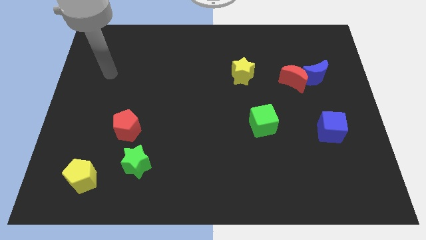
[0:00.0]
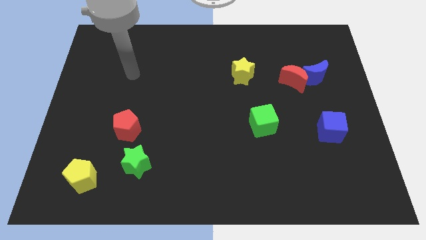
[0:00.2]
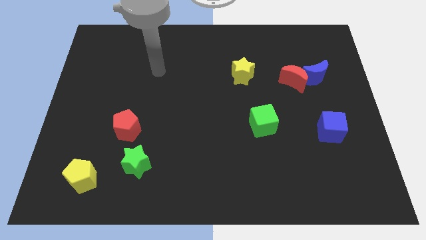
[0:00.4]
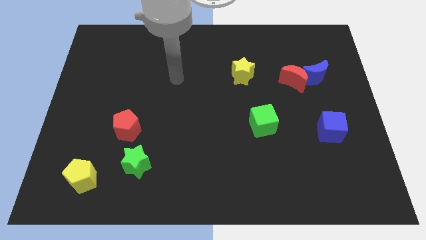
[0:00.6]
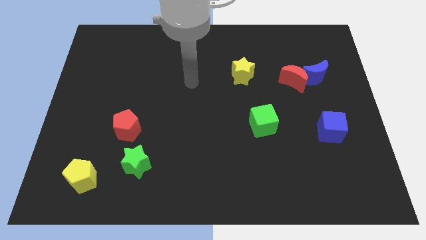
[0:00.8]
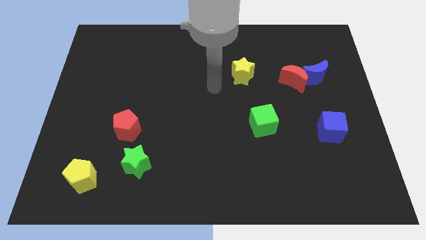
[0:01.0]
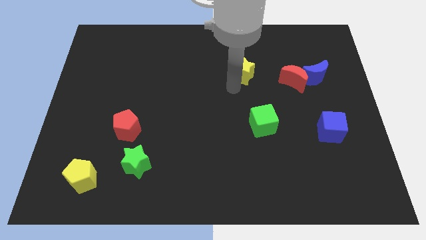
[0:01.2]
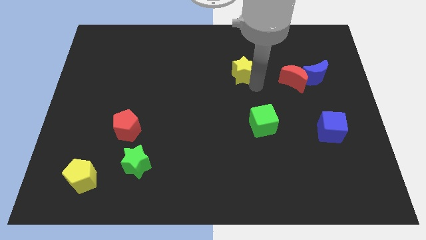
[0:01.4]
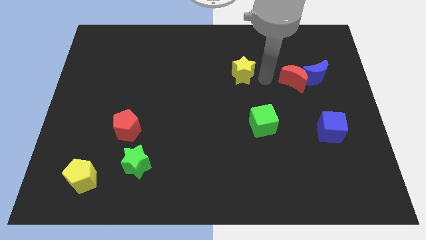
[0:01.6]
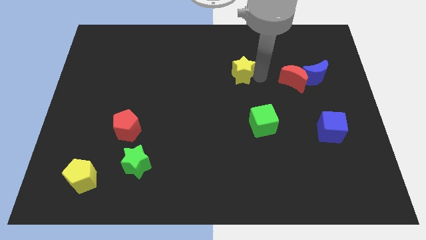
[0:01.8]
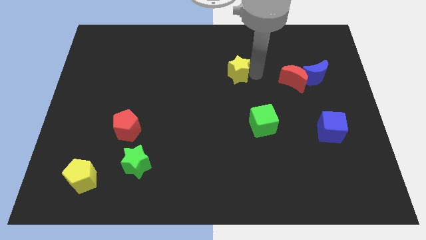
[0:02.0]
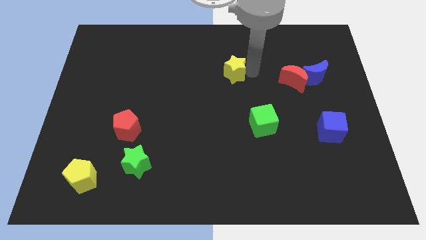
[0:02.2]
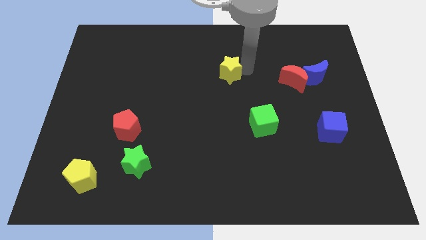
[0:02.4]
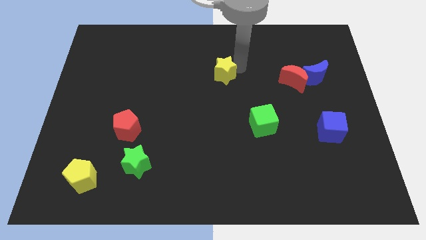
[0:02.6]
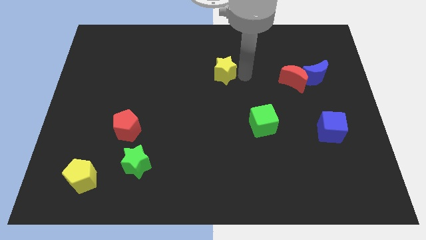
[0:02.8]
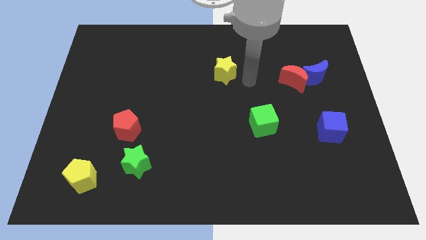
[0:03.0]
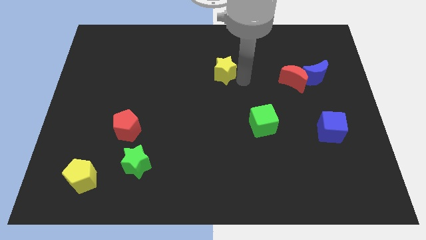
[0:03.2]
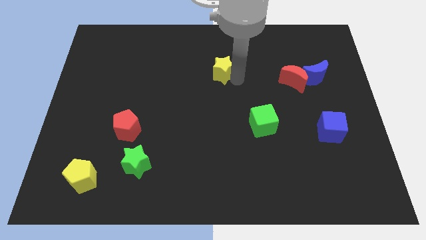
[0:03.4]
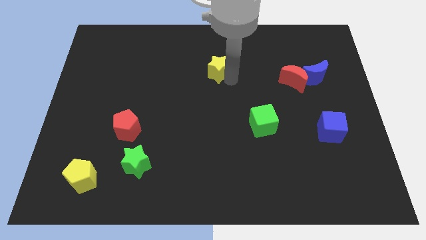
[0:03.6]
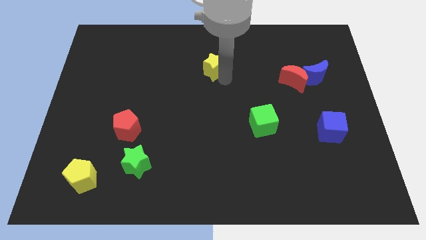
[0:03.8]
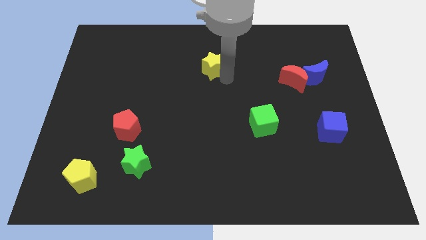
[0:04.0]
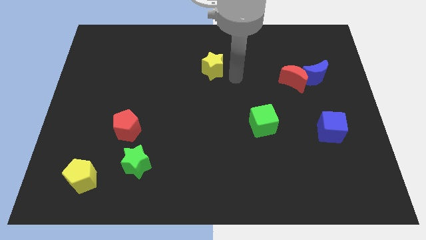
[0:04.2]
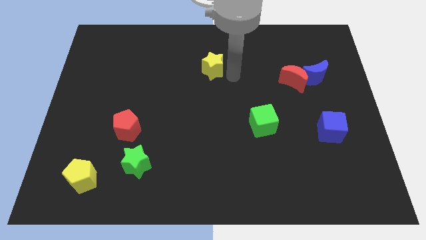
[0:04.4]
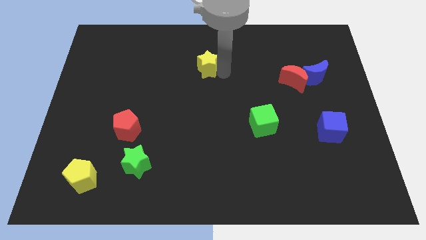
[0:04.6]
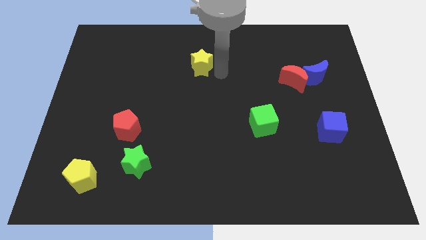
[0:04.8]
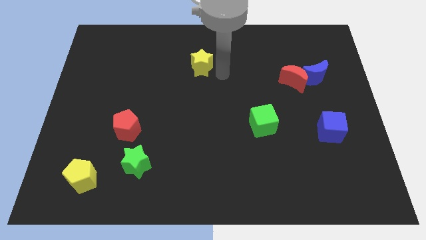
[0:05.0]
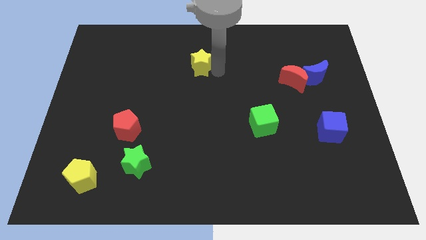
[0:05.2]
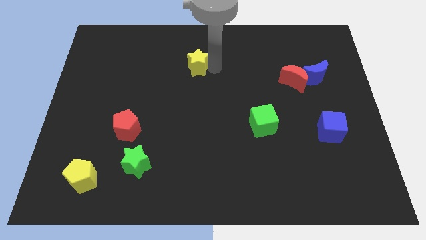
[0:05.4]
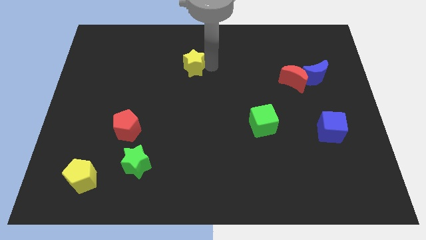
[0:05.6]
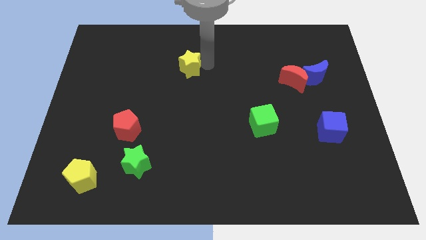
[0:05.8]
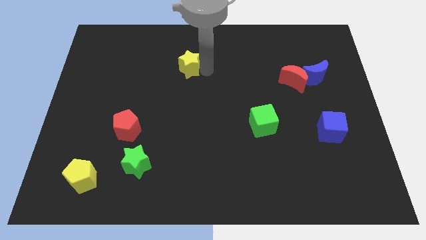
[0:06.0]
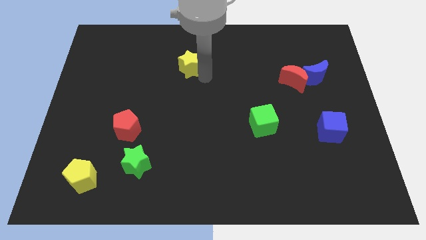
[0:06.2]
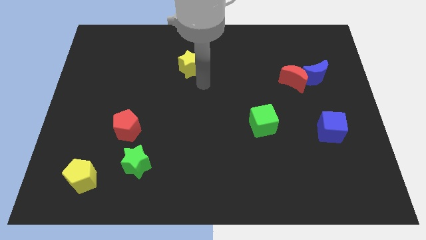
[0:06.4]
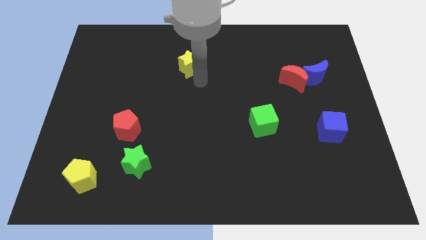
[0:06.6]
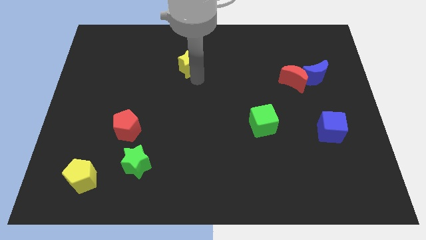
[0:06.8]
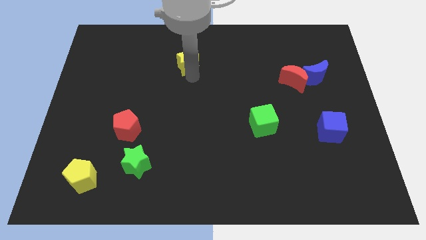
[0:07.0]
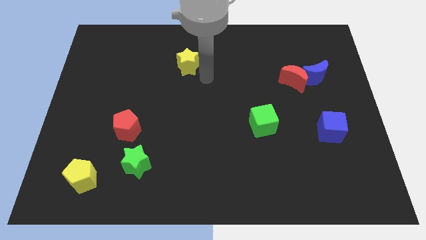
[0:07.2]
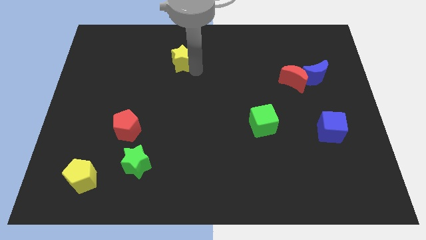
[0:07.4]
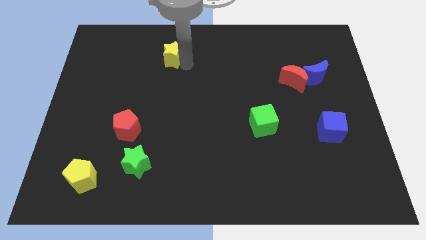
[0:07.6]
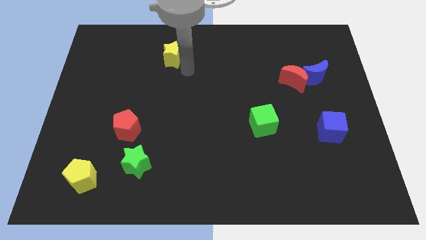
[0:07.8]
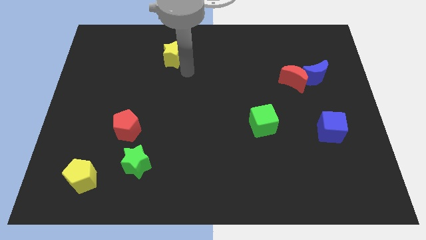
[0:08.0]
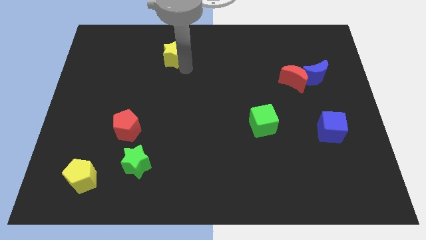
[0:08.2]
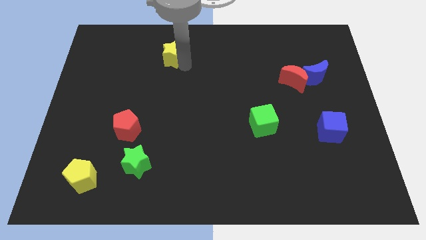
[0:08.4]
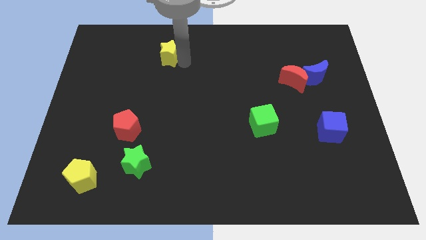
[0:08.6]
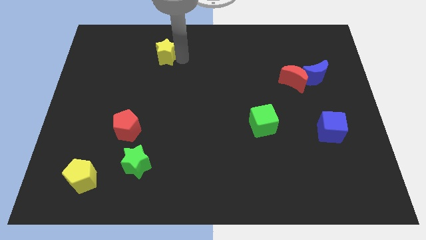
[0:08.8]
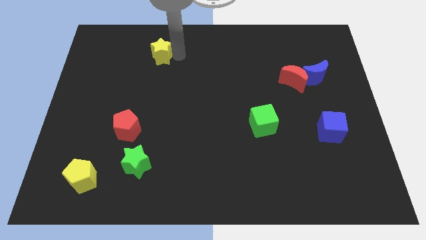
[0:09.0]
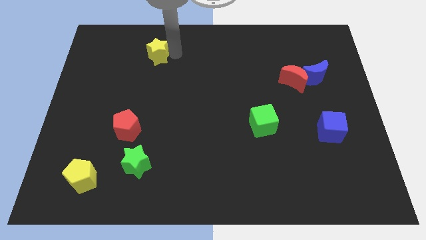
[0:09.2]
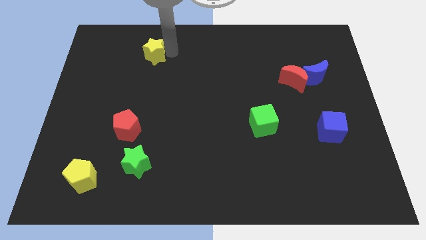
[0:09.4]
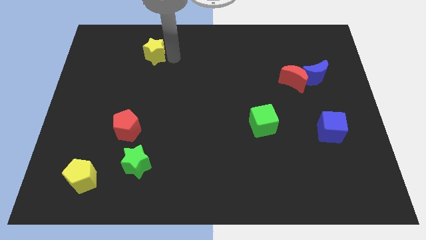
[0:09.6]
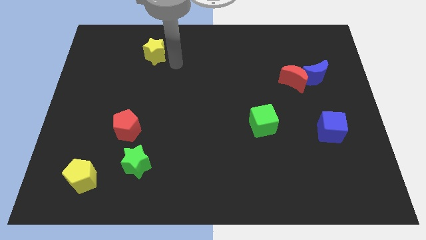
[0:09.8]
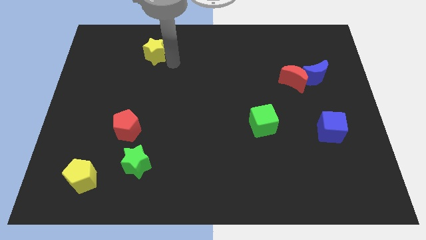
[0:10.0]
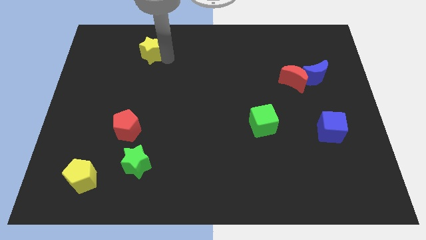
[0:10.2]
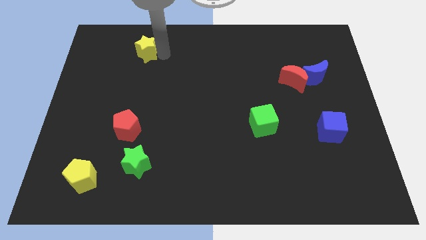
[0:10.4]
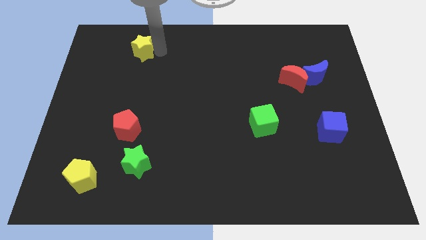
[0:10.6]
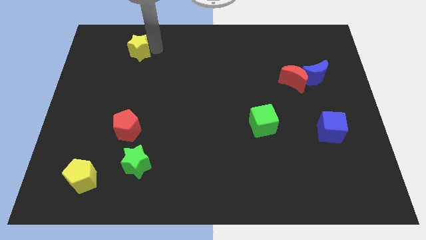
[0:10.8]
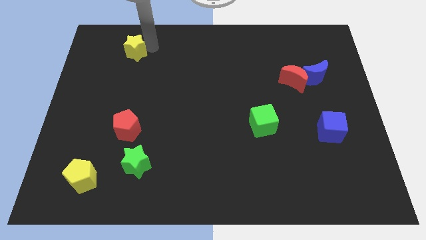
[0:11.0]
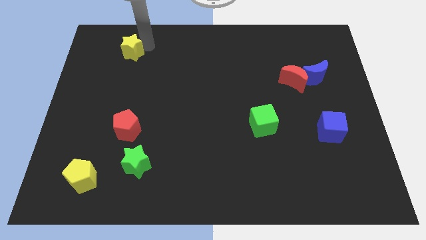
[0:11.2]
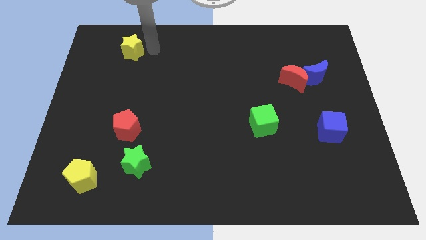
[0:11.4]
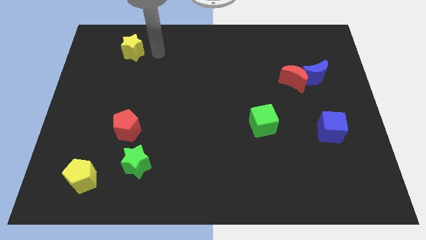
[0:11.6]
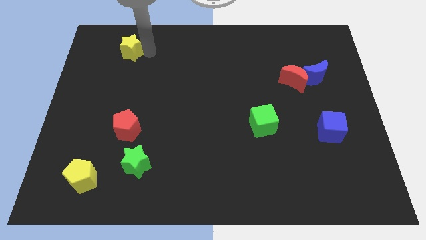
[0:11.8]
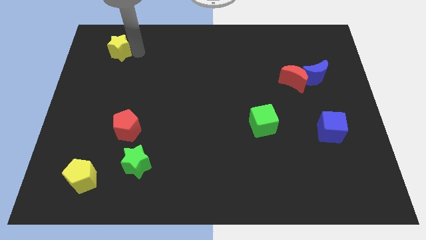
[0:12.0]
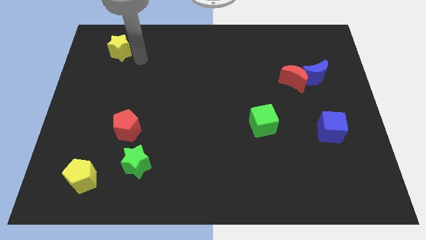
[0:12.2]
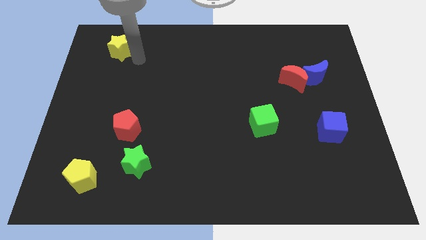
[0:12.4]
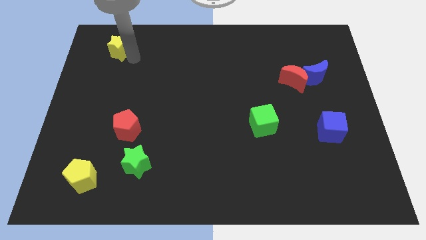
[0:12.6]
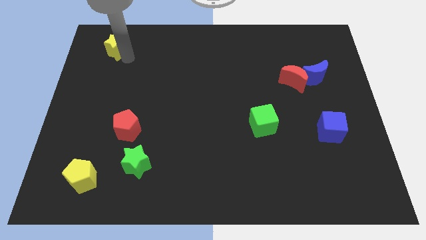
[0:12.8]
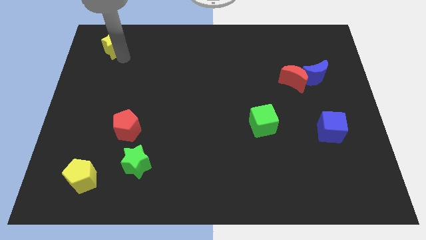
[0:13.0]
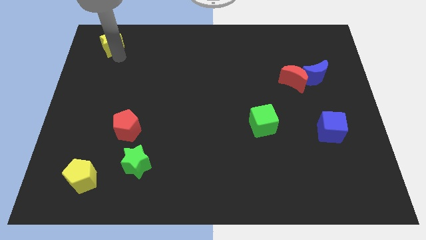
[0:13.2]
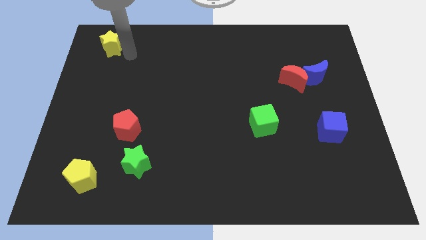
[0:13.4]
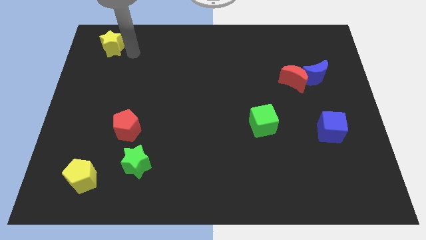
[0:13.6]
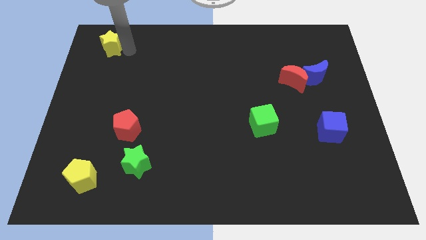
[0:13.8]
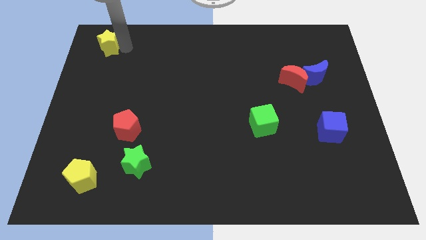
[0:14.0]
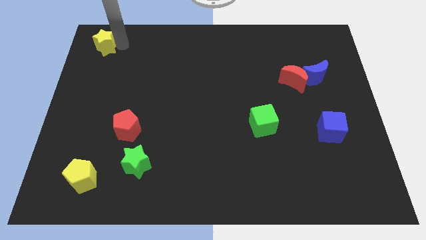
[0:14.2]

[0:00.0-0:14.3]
slide the yellow star to the top left
